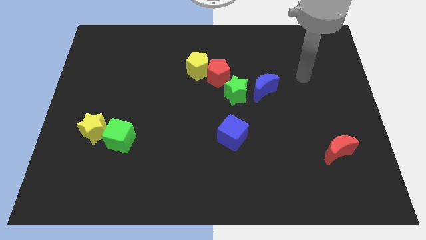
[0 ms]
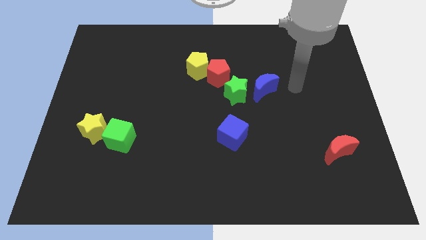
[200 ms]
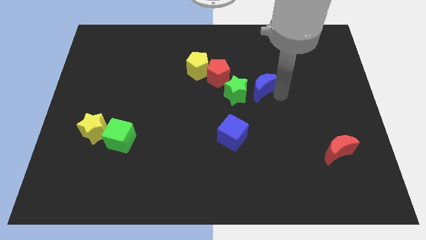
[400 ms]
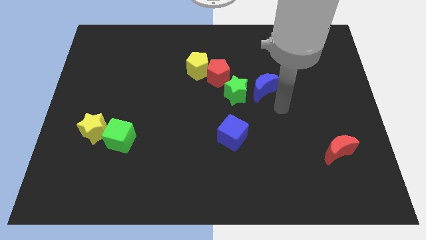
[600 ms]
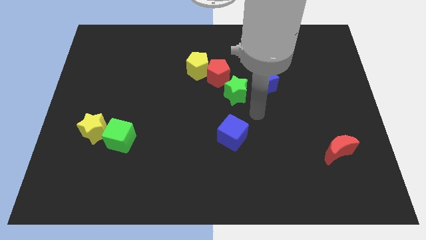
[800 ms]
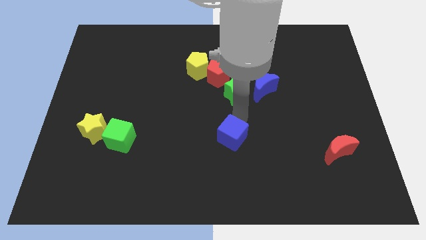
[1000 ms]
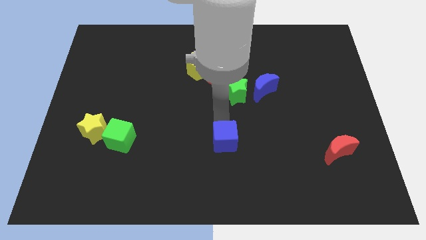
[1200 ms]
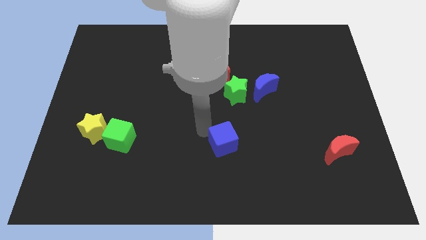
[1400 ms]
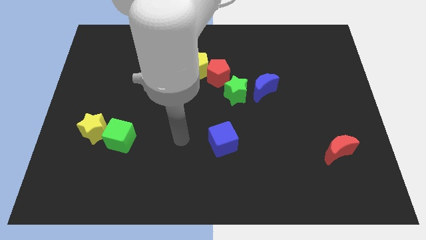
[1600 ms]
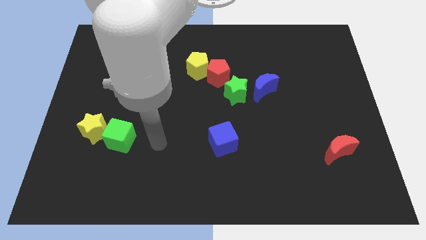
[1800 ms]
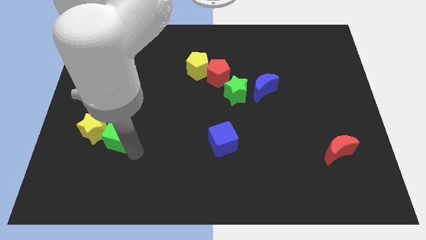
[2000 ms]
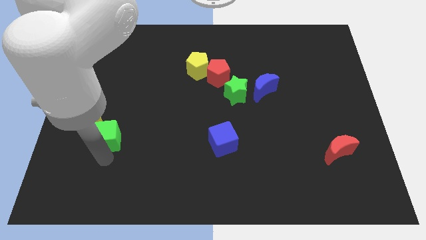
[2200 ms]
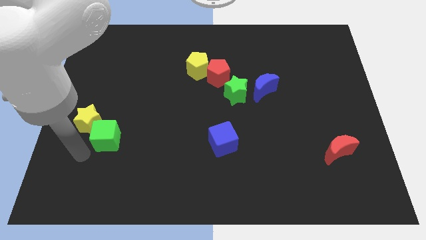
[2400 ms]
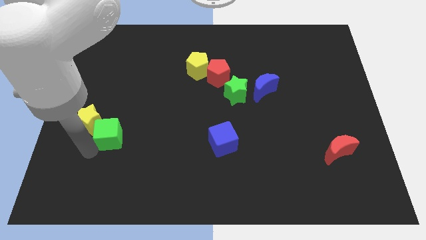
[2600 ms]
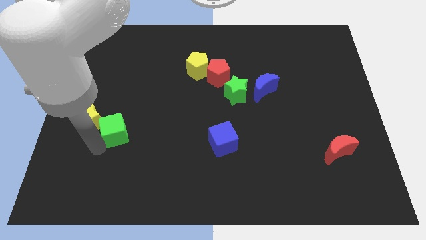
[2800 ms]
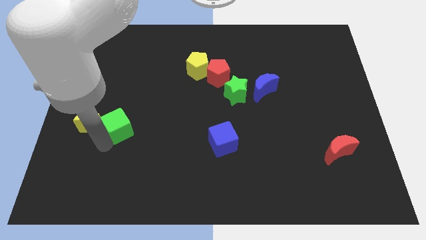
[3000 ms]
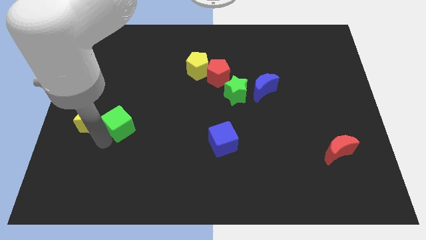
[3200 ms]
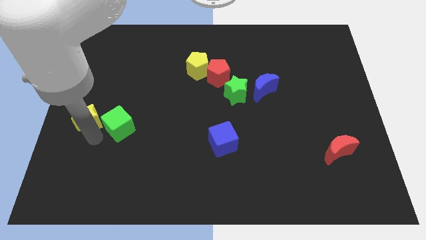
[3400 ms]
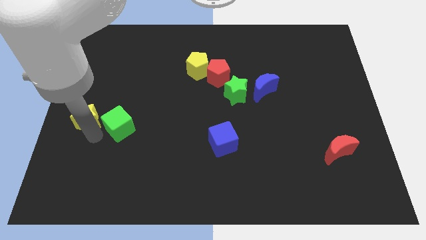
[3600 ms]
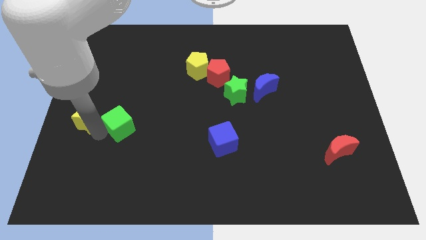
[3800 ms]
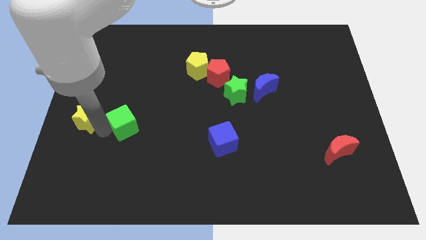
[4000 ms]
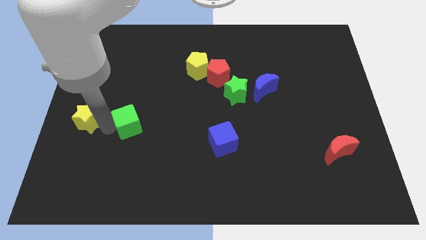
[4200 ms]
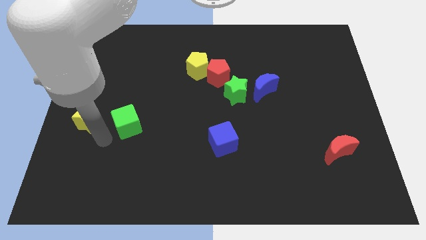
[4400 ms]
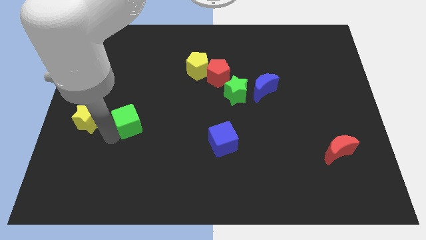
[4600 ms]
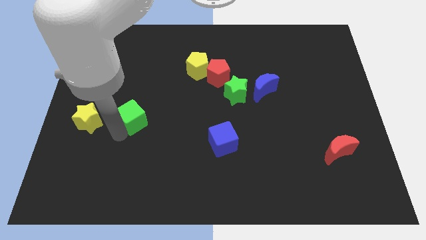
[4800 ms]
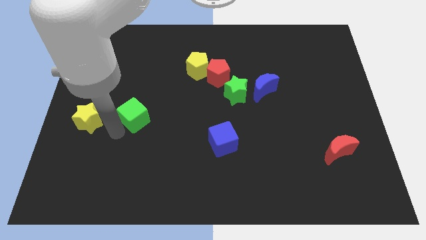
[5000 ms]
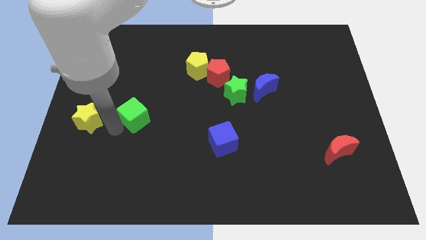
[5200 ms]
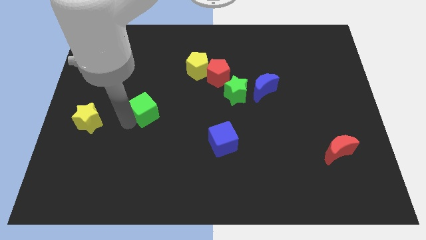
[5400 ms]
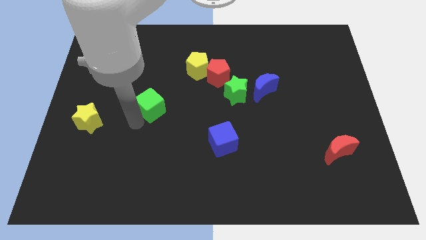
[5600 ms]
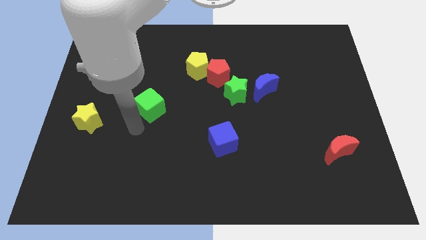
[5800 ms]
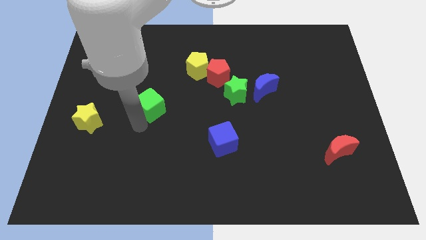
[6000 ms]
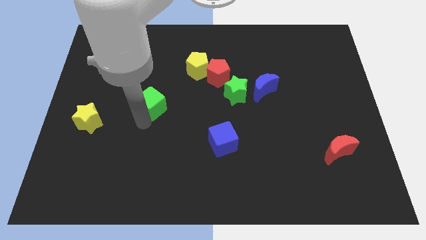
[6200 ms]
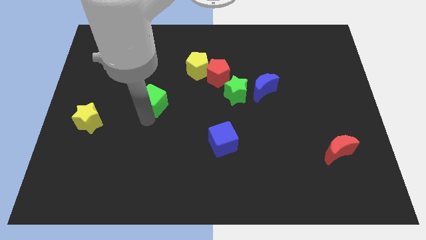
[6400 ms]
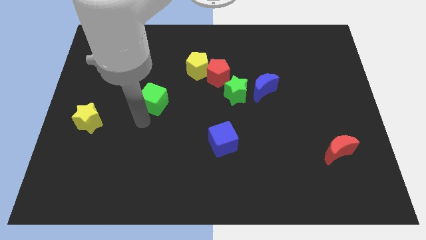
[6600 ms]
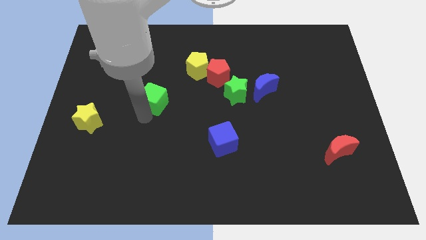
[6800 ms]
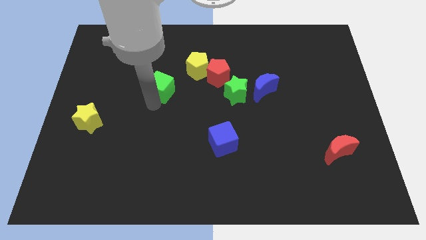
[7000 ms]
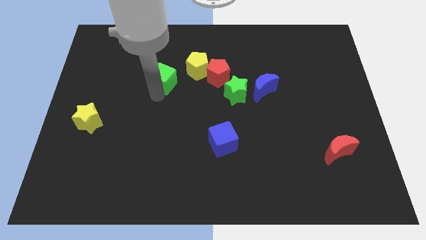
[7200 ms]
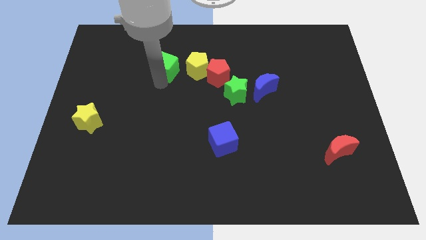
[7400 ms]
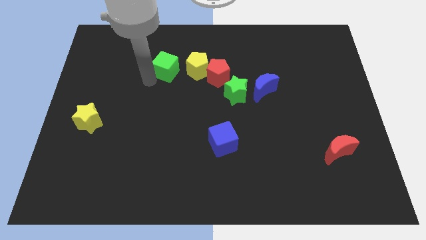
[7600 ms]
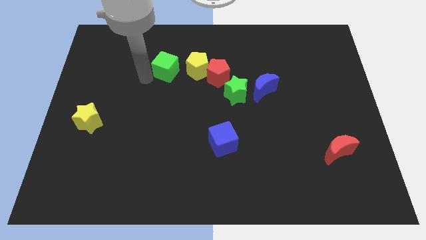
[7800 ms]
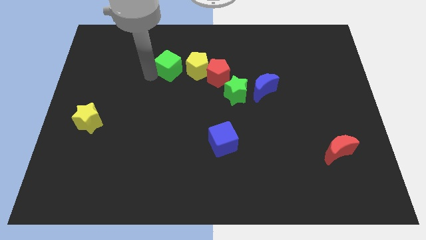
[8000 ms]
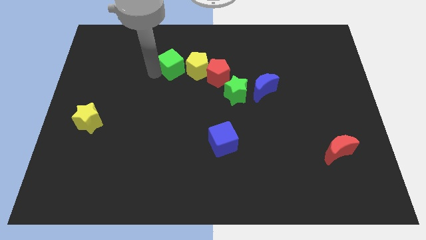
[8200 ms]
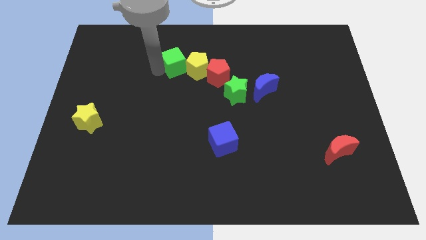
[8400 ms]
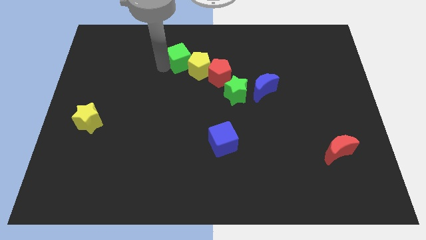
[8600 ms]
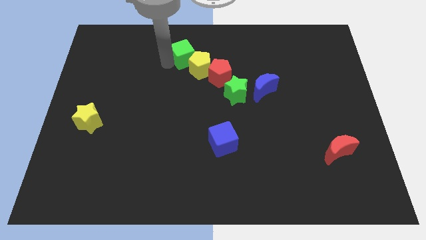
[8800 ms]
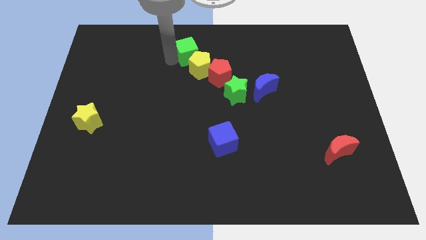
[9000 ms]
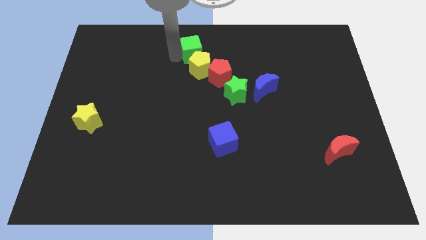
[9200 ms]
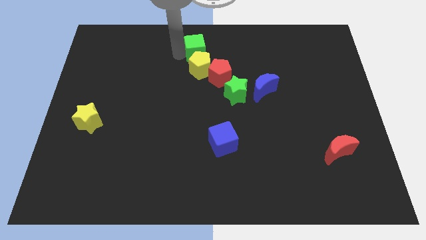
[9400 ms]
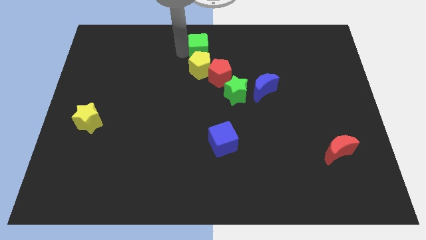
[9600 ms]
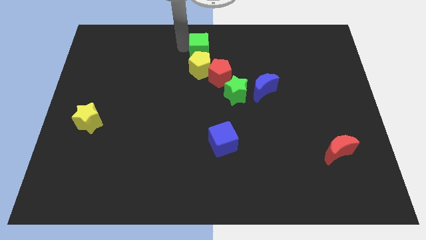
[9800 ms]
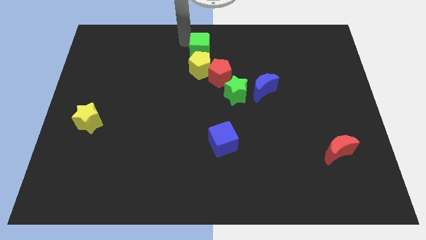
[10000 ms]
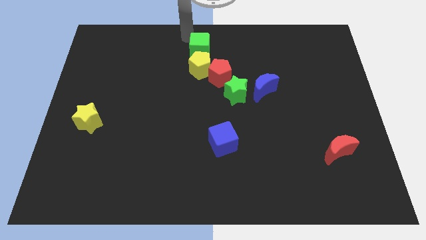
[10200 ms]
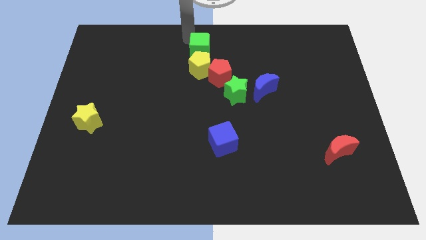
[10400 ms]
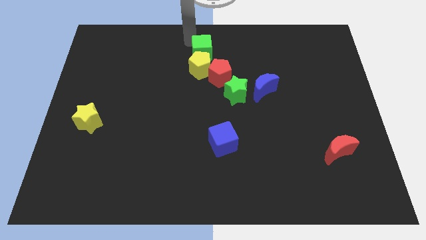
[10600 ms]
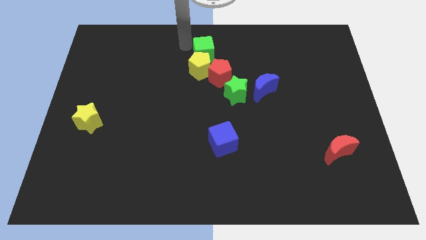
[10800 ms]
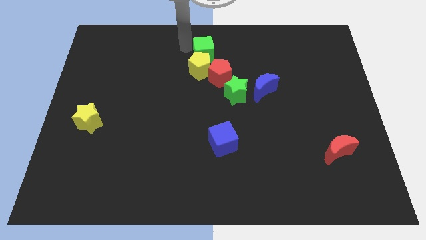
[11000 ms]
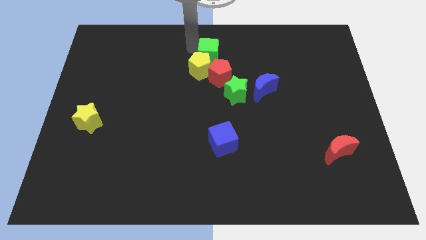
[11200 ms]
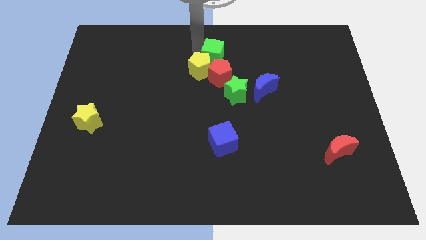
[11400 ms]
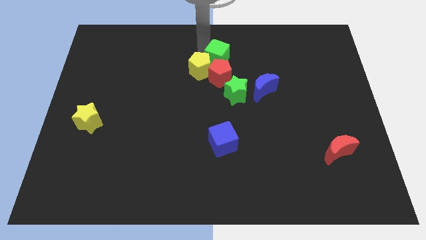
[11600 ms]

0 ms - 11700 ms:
move the green cube to the top of the green star
